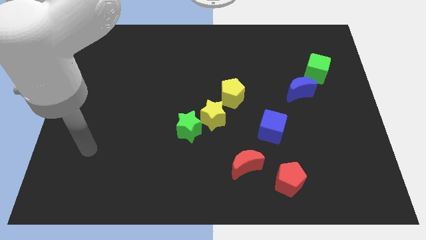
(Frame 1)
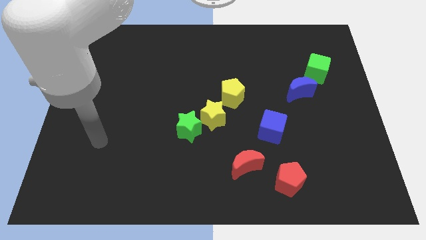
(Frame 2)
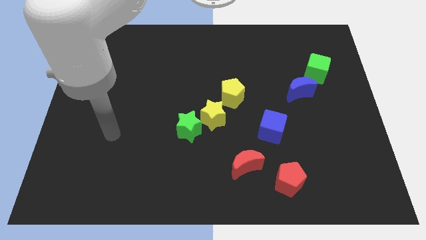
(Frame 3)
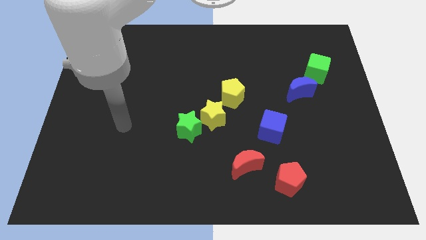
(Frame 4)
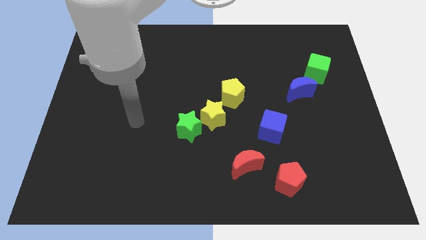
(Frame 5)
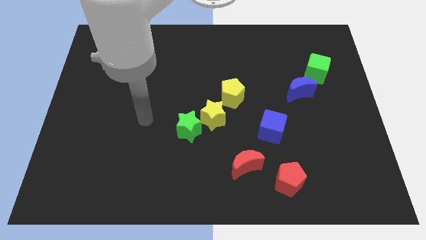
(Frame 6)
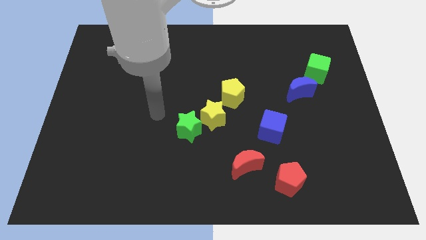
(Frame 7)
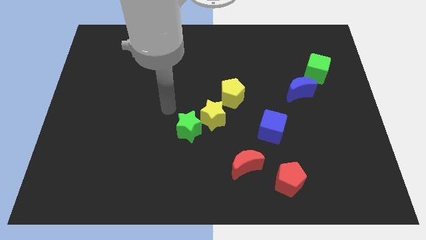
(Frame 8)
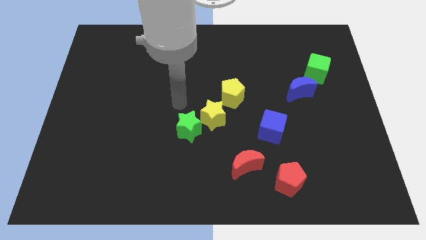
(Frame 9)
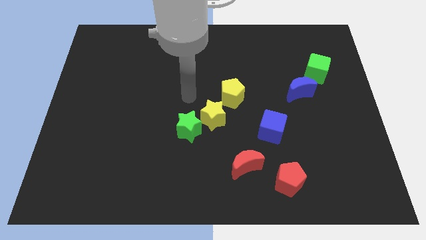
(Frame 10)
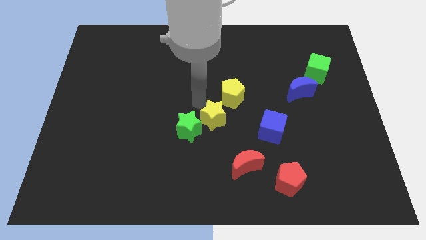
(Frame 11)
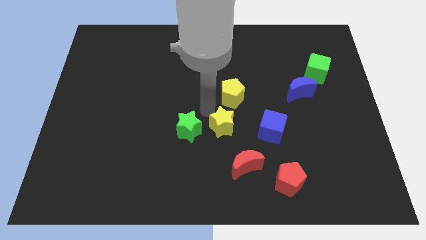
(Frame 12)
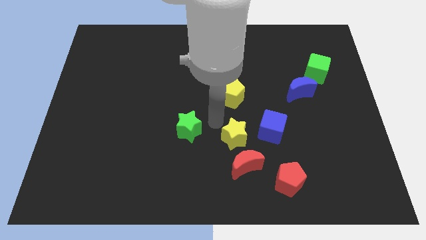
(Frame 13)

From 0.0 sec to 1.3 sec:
move the green star away from the yellow star

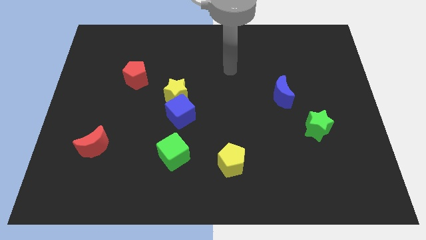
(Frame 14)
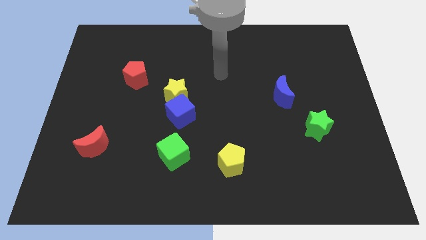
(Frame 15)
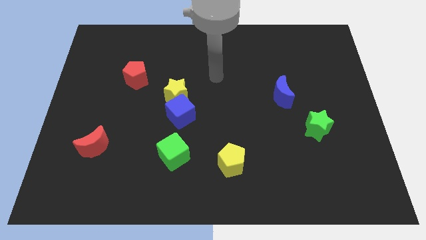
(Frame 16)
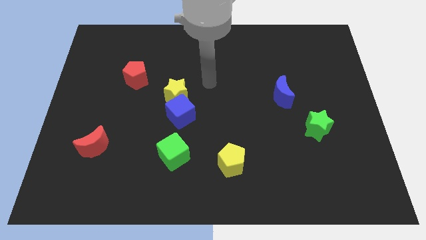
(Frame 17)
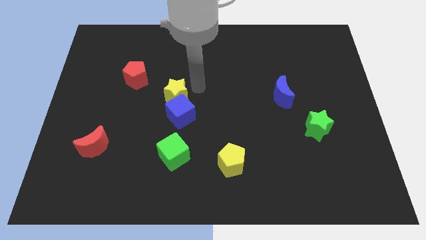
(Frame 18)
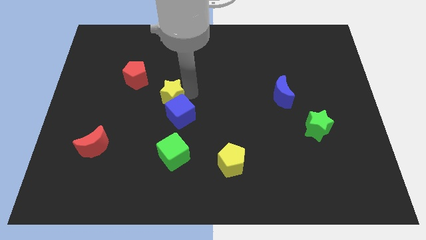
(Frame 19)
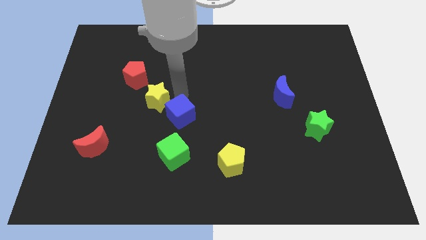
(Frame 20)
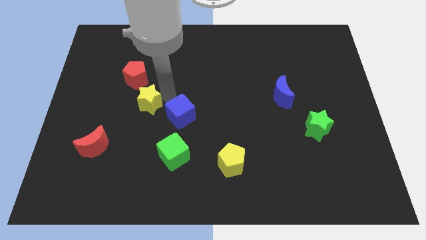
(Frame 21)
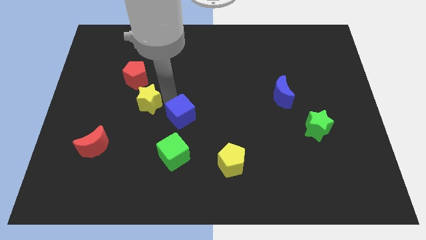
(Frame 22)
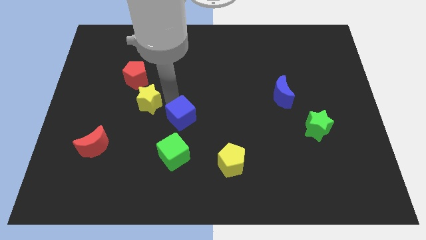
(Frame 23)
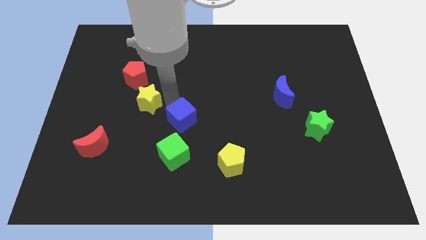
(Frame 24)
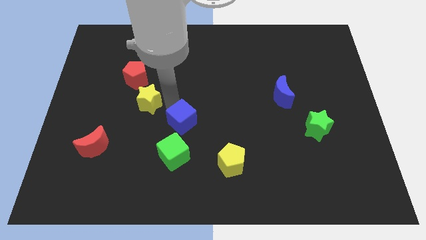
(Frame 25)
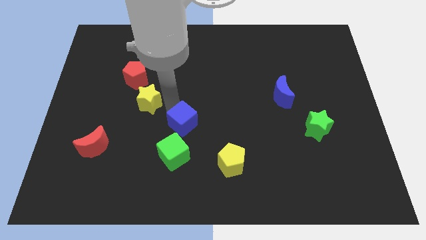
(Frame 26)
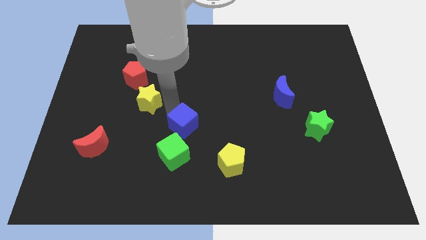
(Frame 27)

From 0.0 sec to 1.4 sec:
pull the blue cube apart from the yellow star

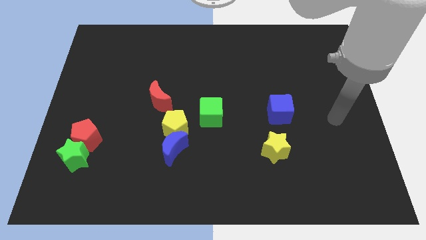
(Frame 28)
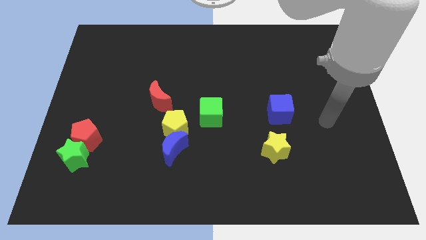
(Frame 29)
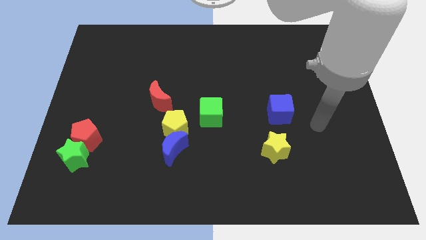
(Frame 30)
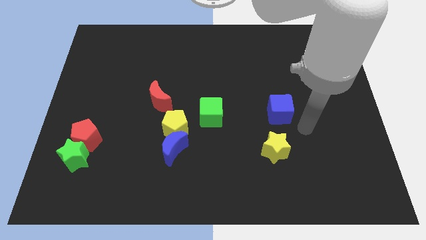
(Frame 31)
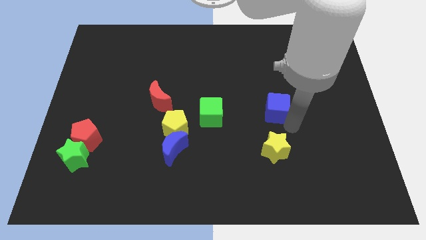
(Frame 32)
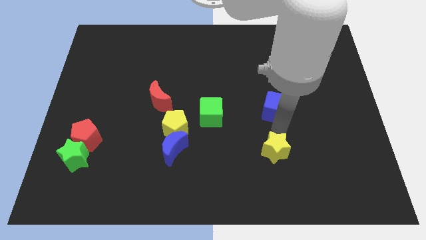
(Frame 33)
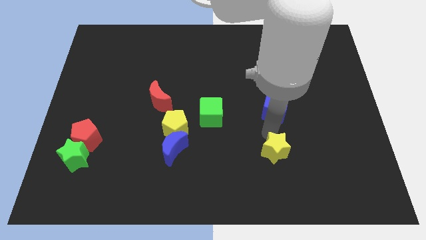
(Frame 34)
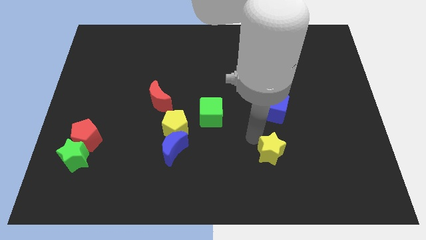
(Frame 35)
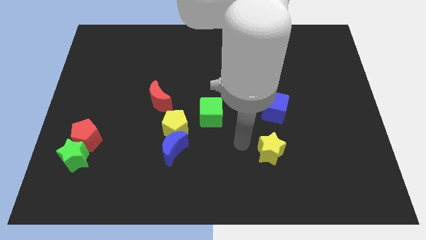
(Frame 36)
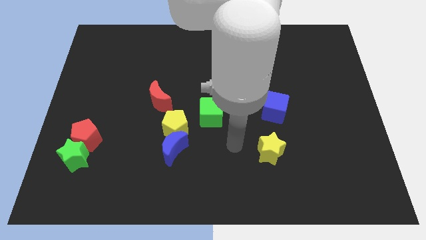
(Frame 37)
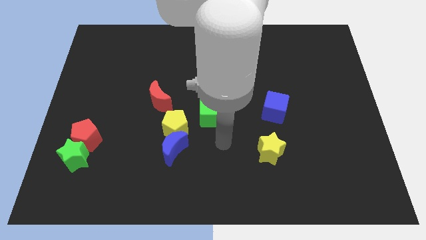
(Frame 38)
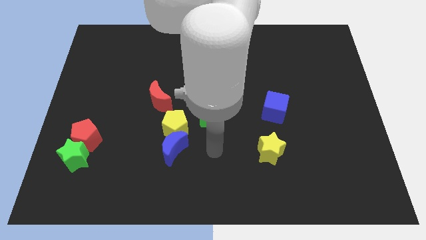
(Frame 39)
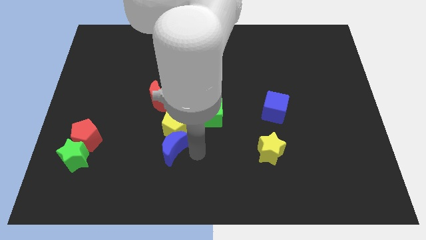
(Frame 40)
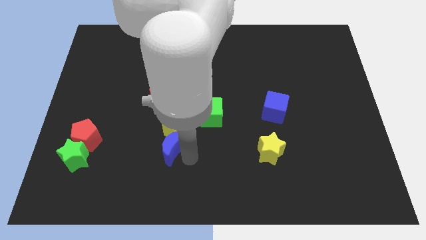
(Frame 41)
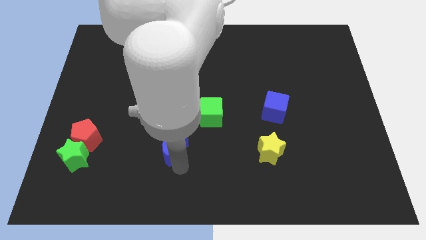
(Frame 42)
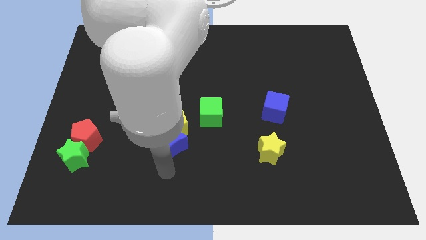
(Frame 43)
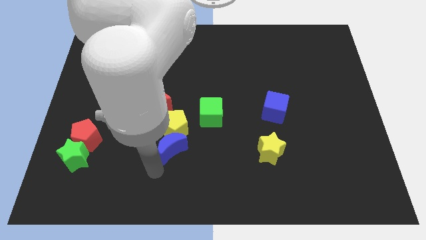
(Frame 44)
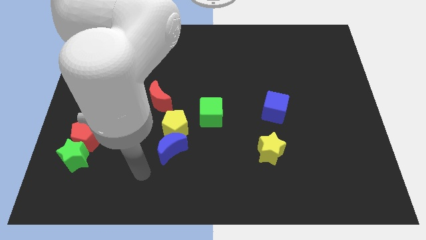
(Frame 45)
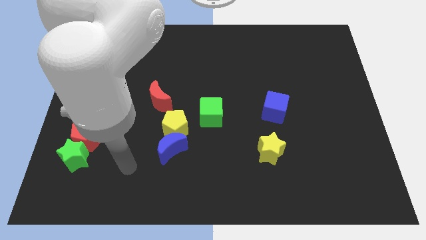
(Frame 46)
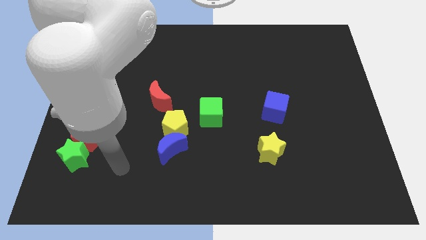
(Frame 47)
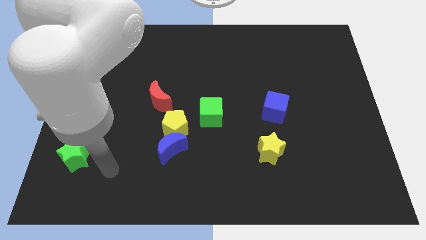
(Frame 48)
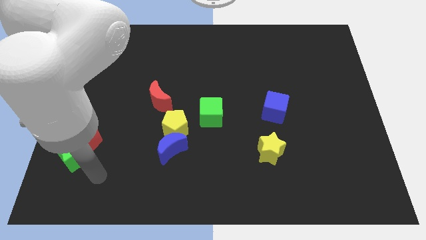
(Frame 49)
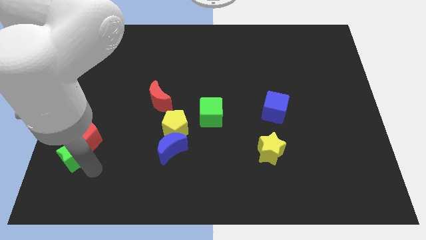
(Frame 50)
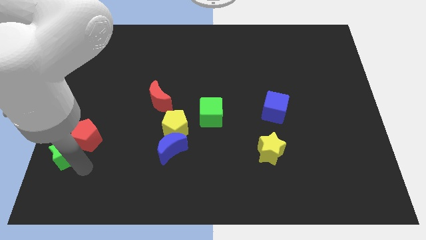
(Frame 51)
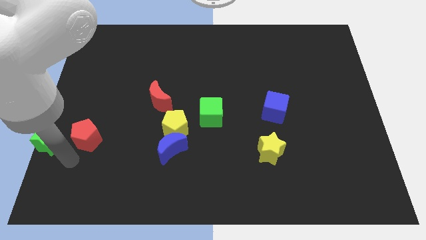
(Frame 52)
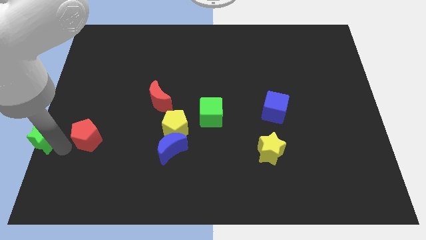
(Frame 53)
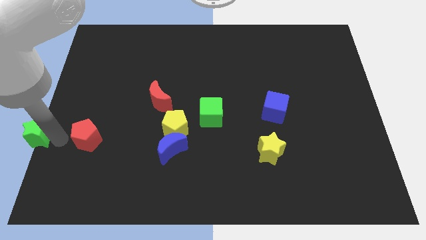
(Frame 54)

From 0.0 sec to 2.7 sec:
pull the red pentagon apart from the green star

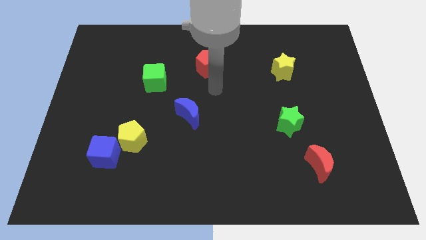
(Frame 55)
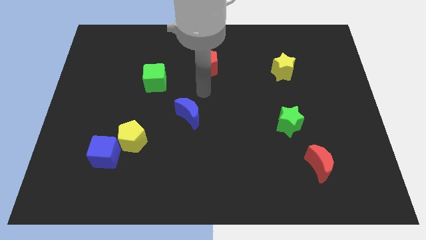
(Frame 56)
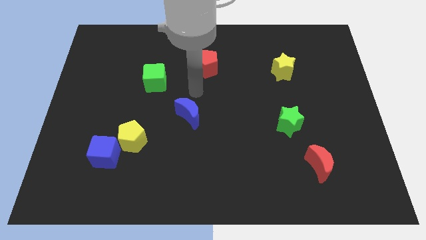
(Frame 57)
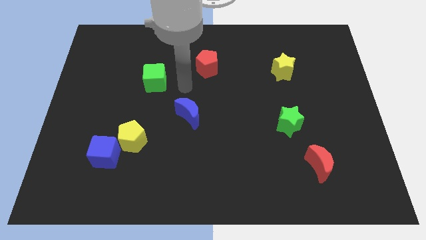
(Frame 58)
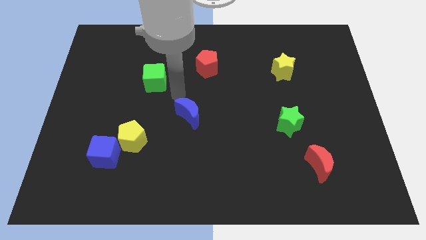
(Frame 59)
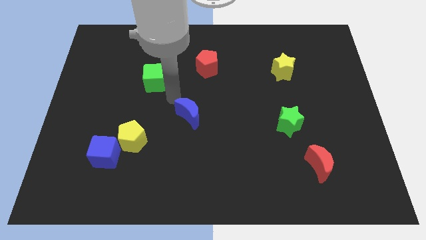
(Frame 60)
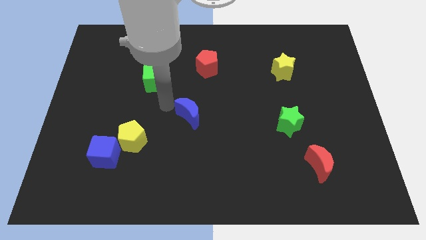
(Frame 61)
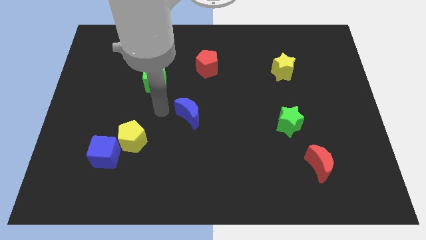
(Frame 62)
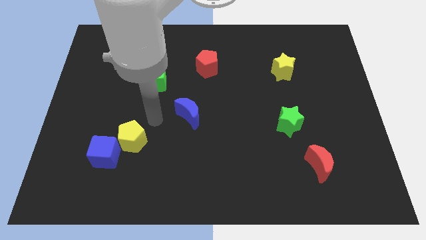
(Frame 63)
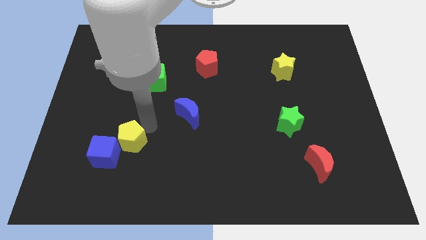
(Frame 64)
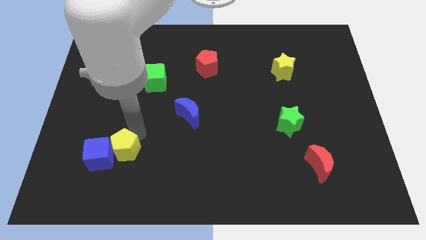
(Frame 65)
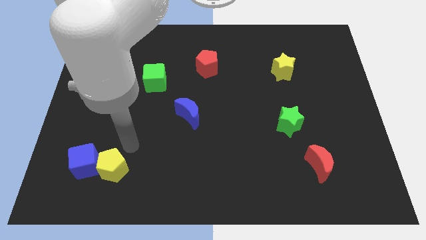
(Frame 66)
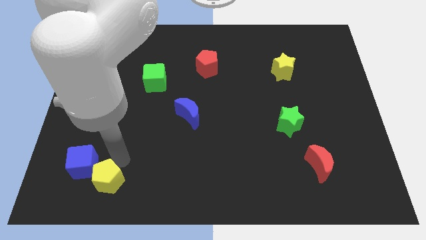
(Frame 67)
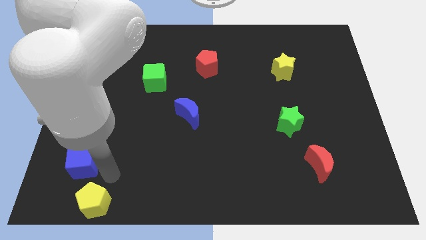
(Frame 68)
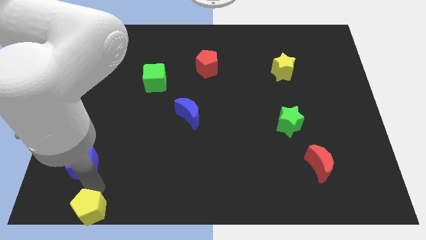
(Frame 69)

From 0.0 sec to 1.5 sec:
move the blue cube away from the yellow pentagon

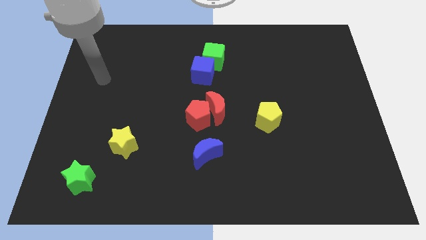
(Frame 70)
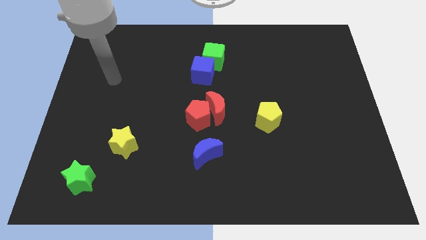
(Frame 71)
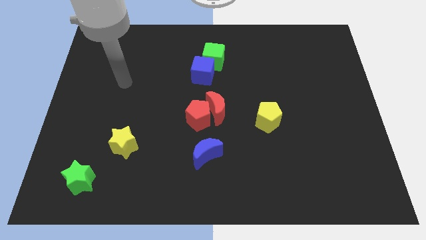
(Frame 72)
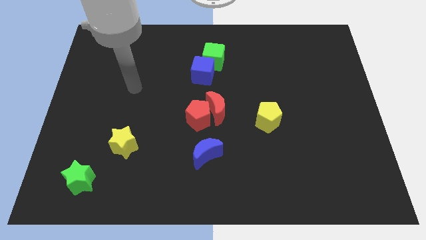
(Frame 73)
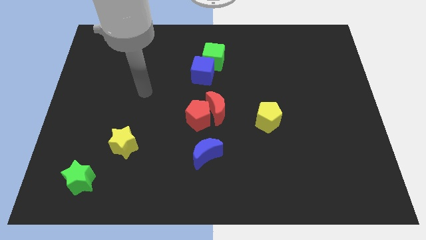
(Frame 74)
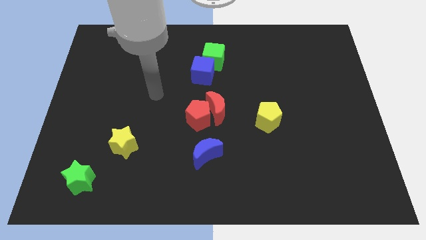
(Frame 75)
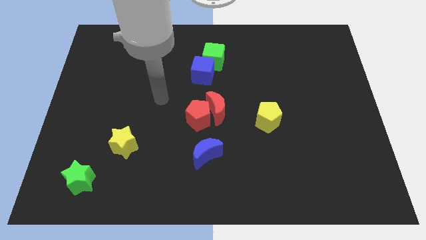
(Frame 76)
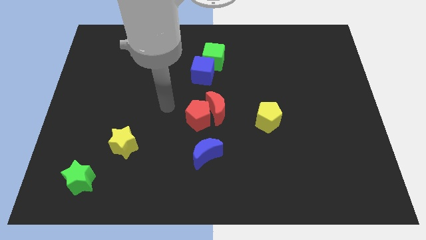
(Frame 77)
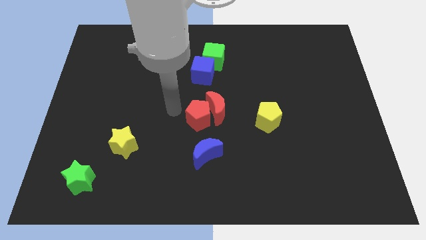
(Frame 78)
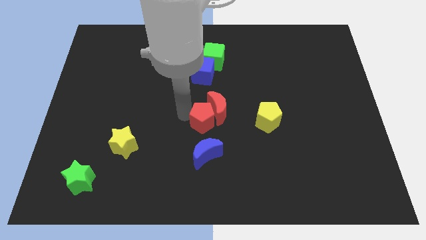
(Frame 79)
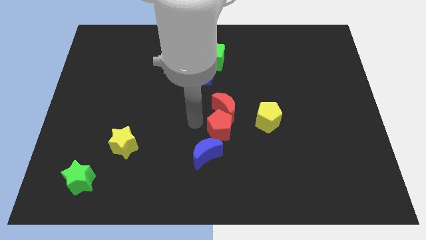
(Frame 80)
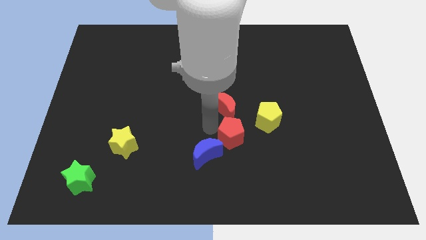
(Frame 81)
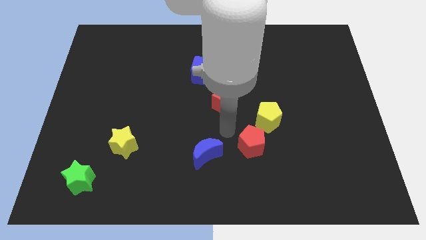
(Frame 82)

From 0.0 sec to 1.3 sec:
pull the red moon apart from the red pentagon

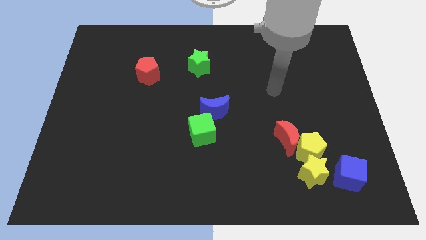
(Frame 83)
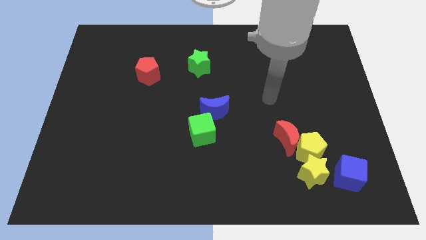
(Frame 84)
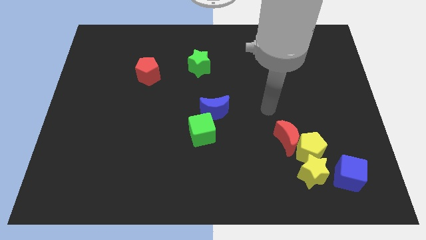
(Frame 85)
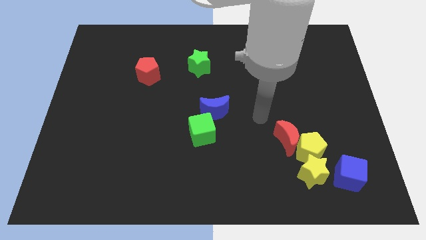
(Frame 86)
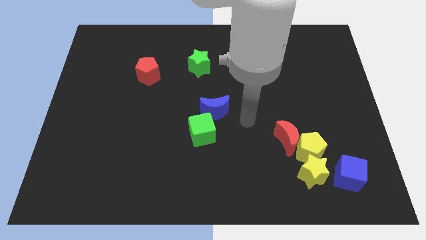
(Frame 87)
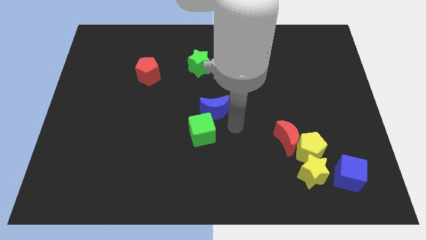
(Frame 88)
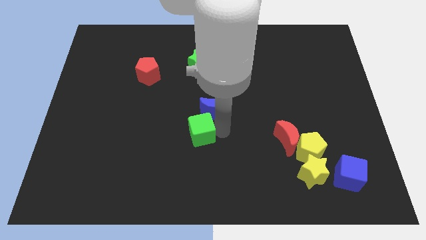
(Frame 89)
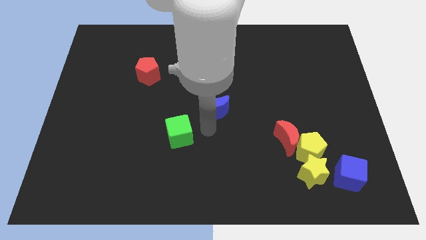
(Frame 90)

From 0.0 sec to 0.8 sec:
pull the blue moon apart from the green cube

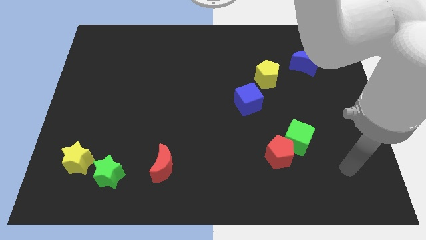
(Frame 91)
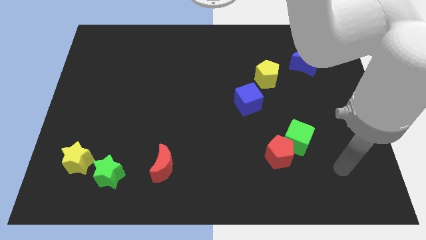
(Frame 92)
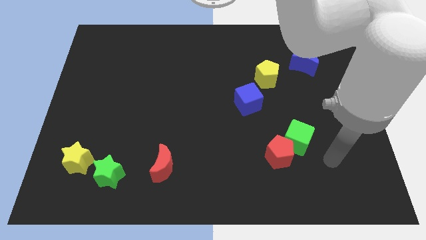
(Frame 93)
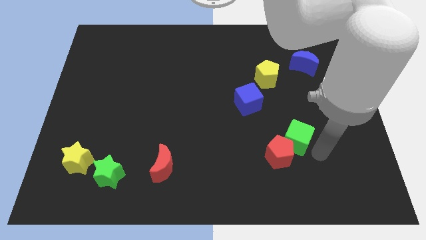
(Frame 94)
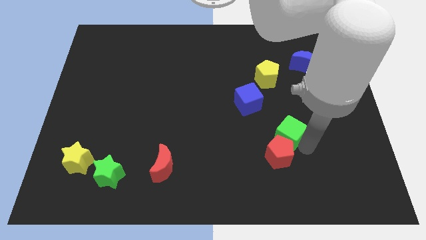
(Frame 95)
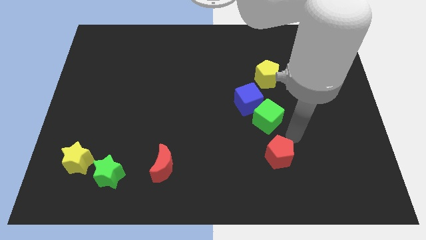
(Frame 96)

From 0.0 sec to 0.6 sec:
pull the red pentagon apart from the green cube
